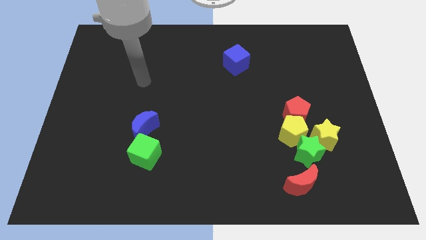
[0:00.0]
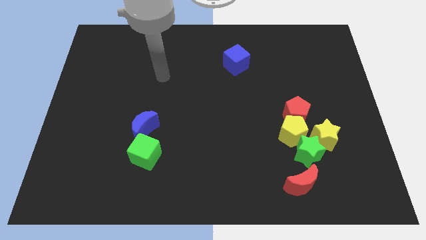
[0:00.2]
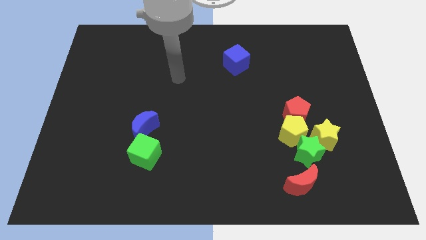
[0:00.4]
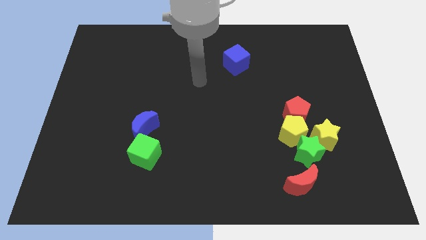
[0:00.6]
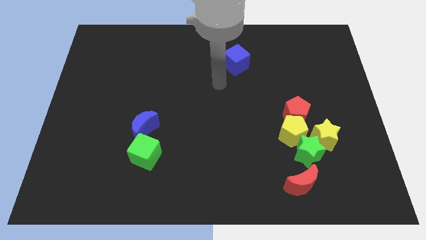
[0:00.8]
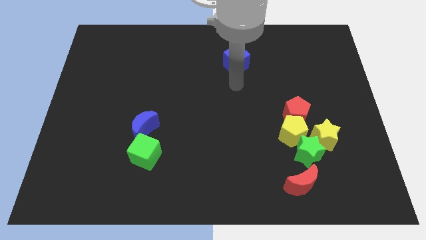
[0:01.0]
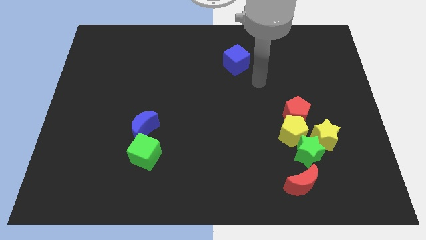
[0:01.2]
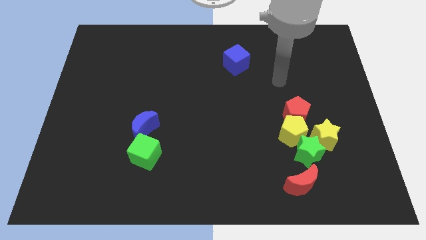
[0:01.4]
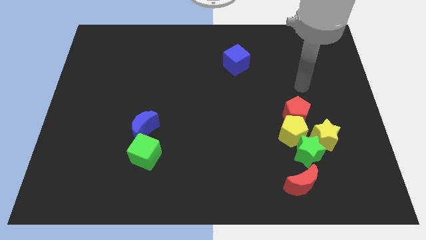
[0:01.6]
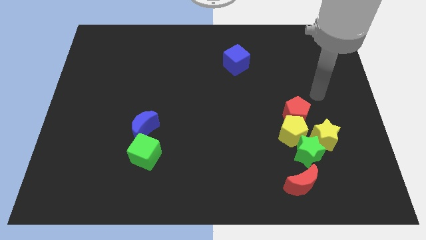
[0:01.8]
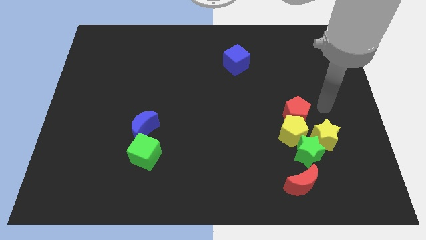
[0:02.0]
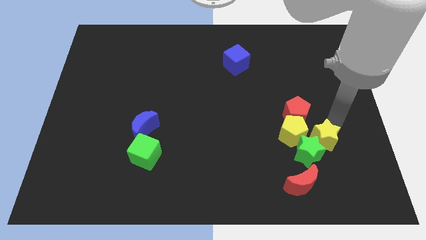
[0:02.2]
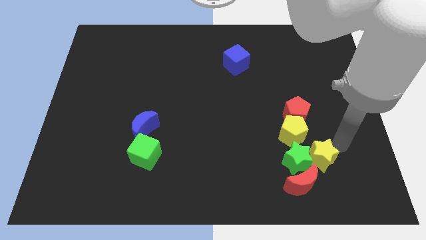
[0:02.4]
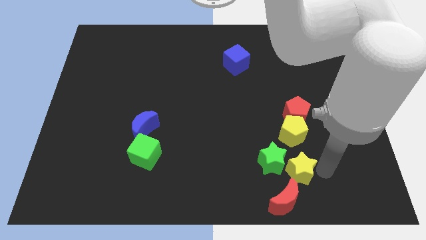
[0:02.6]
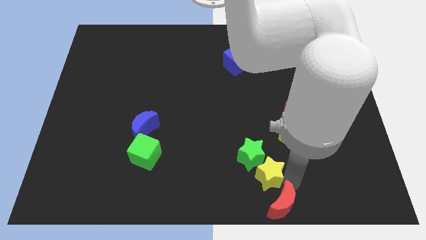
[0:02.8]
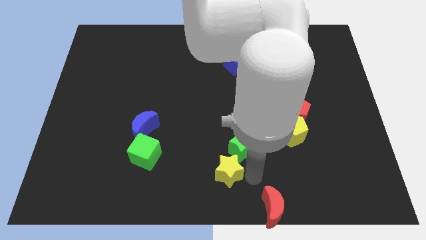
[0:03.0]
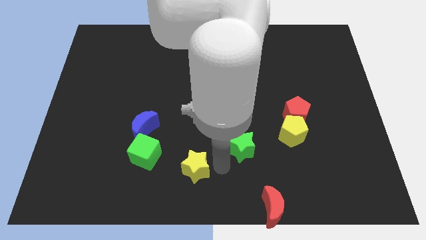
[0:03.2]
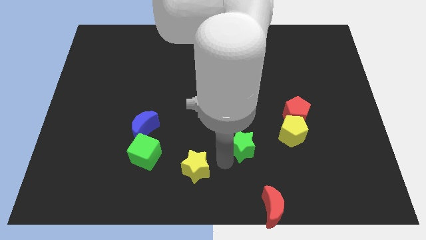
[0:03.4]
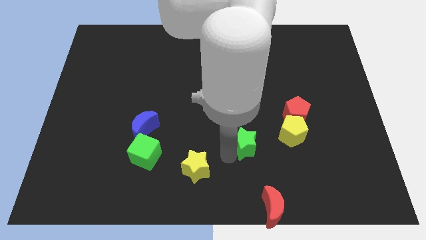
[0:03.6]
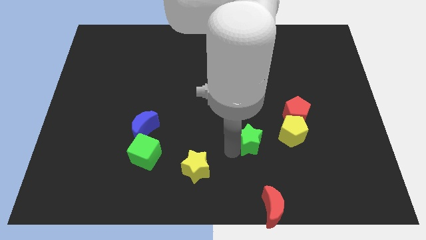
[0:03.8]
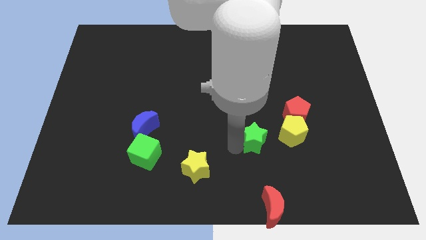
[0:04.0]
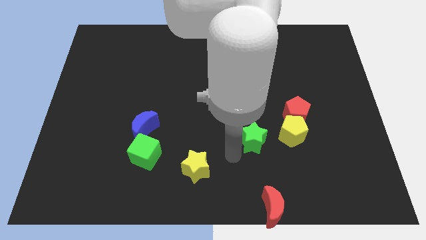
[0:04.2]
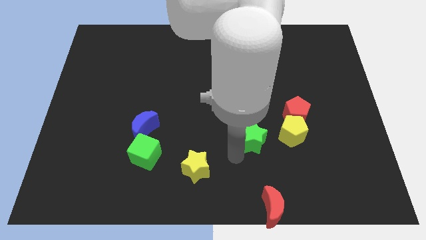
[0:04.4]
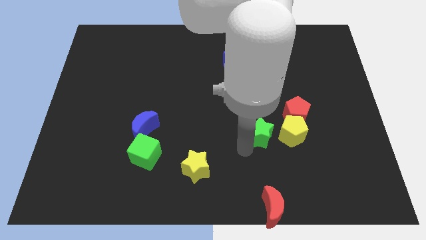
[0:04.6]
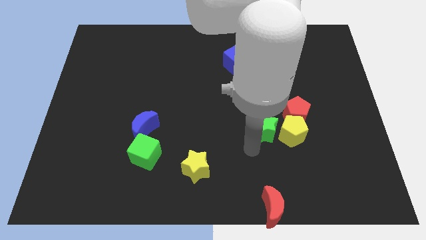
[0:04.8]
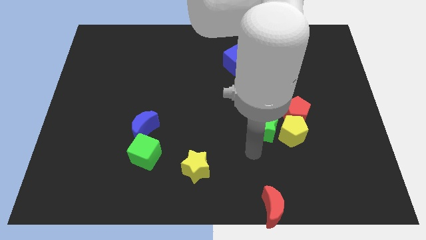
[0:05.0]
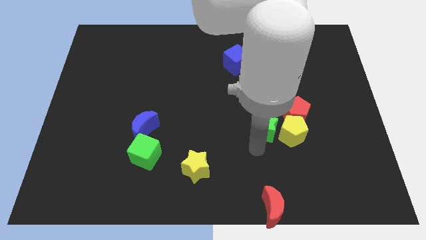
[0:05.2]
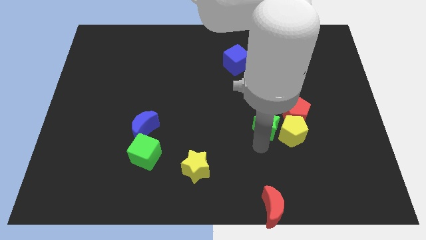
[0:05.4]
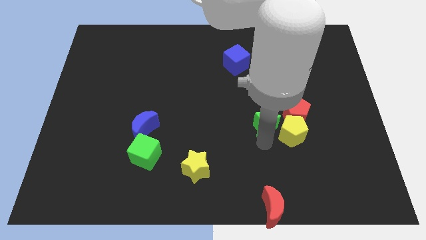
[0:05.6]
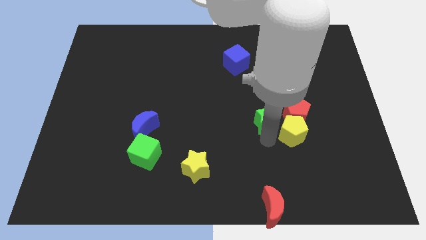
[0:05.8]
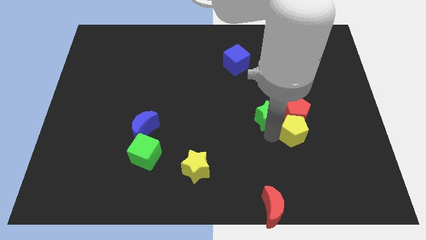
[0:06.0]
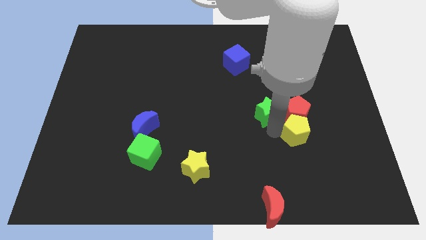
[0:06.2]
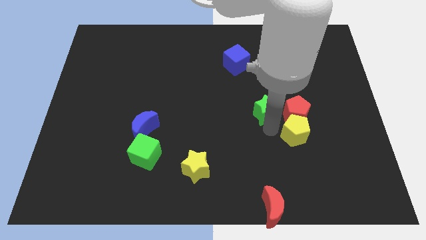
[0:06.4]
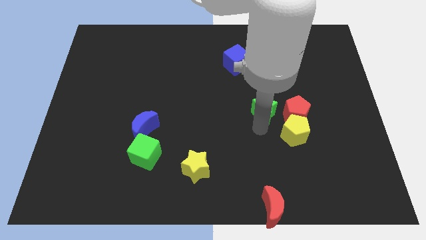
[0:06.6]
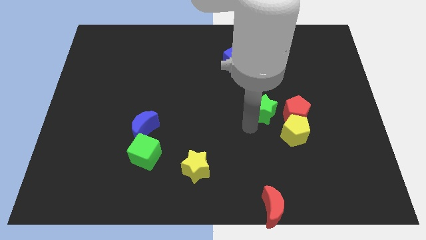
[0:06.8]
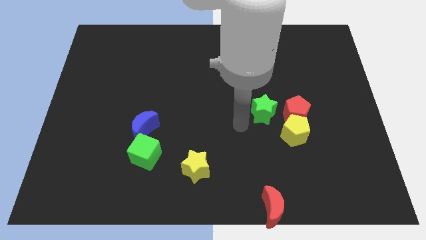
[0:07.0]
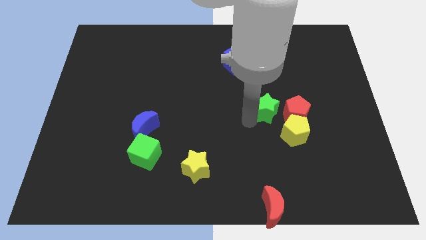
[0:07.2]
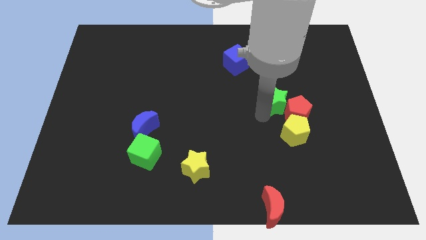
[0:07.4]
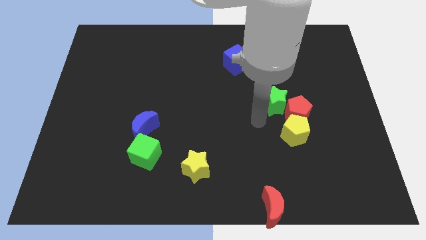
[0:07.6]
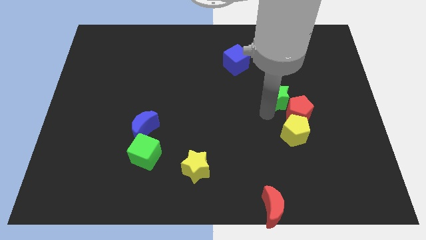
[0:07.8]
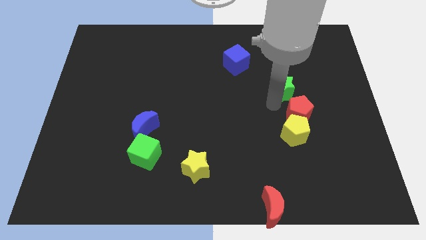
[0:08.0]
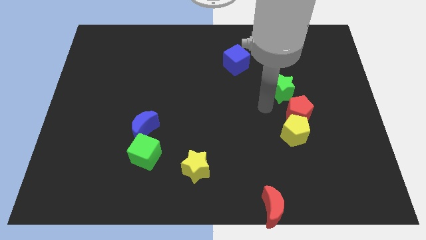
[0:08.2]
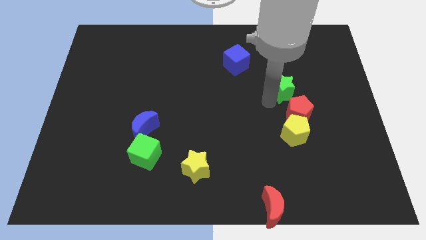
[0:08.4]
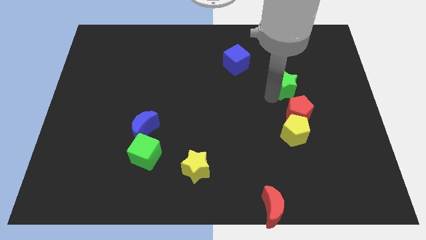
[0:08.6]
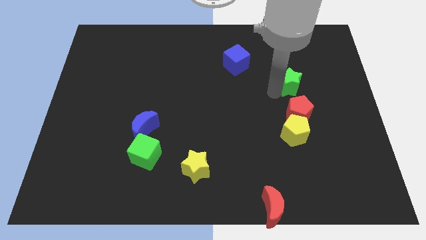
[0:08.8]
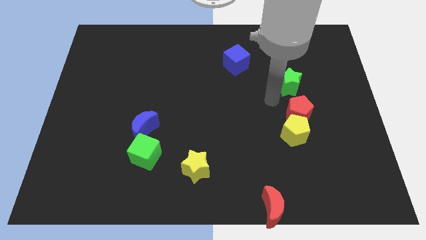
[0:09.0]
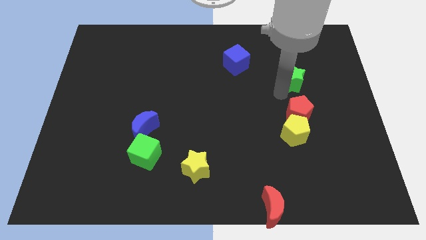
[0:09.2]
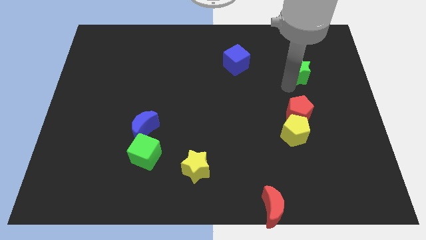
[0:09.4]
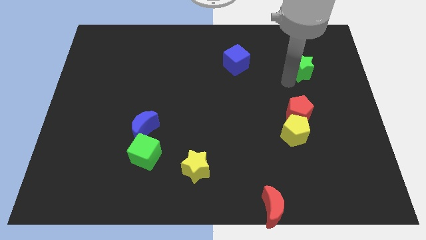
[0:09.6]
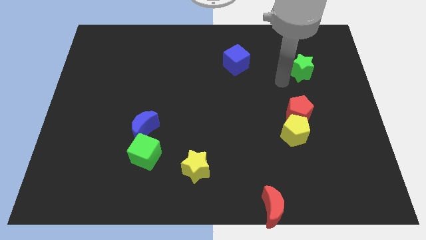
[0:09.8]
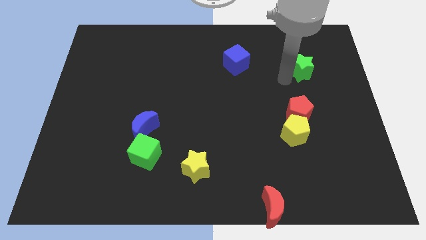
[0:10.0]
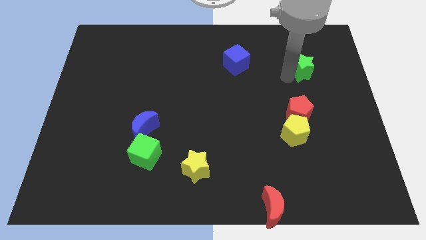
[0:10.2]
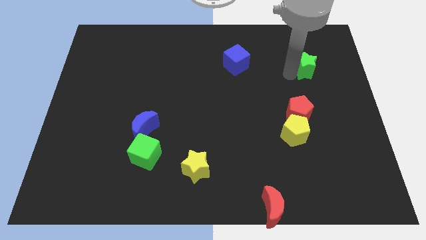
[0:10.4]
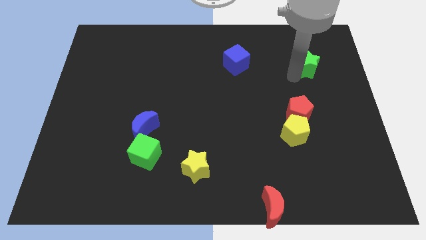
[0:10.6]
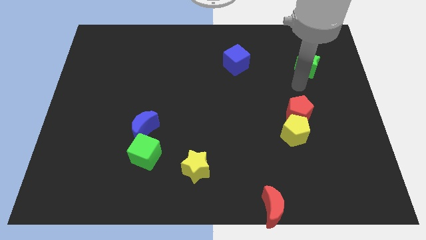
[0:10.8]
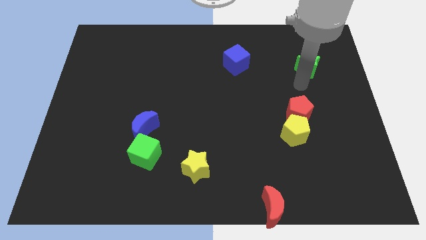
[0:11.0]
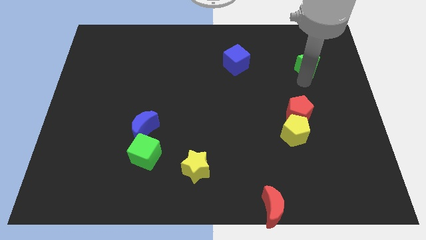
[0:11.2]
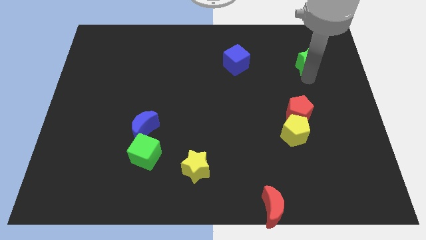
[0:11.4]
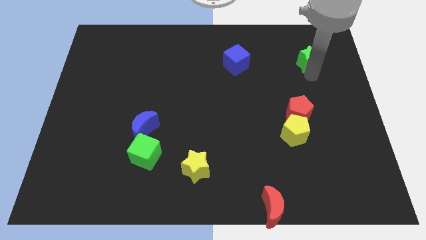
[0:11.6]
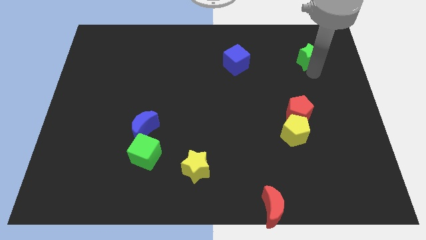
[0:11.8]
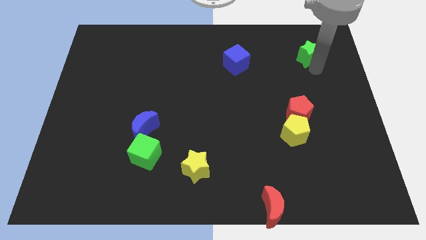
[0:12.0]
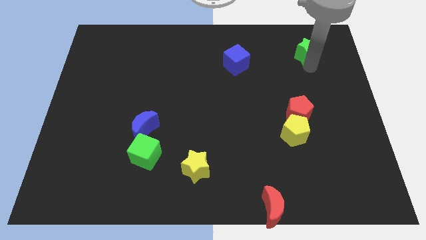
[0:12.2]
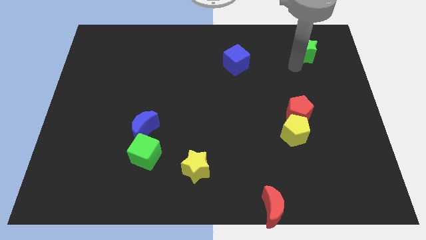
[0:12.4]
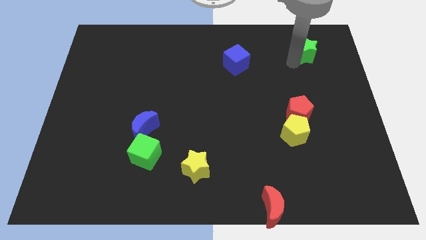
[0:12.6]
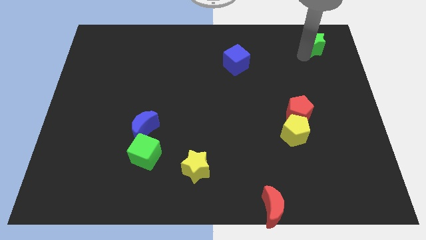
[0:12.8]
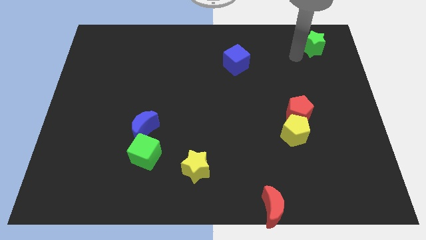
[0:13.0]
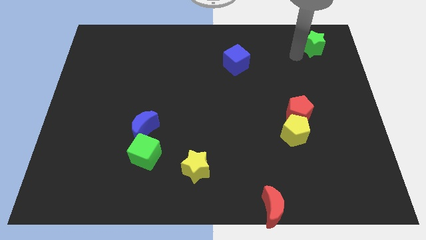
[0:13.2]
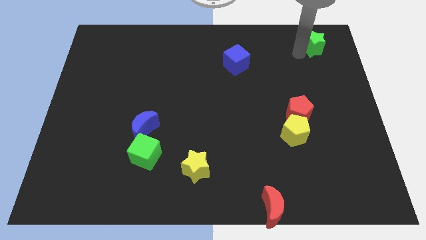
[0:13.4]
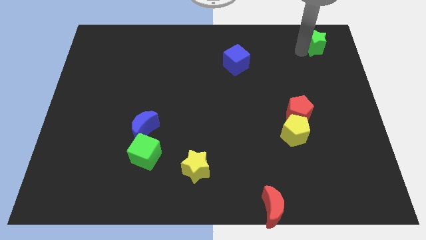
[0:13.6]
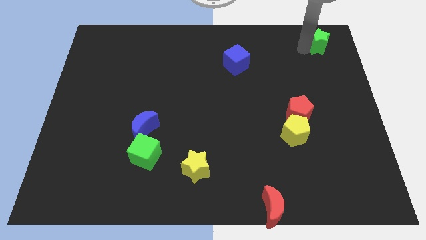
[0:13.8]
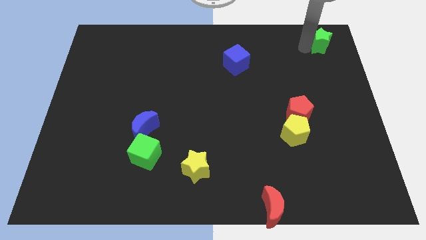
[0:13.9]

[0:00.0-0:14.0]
slide the green star to the top right corner
